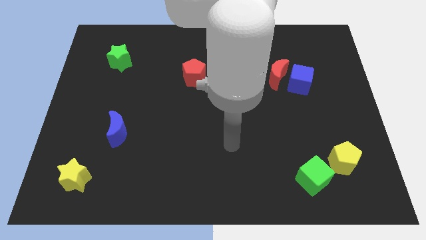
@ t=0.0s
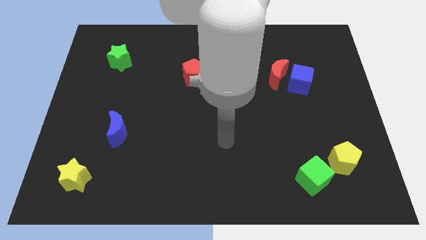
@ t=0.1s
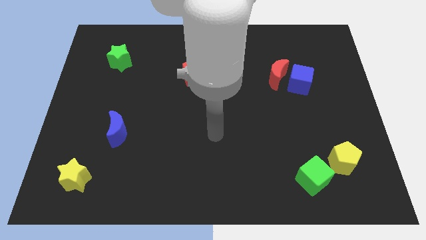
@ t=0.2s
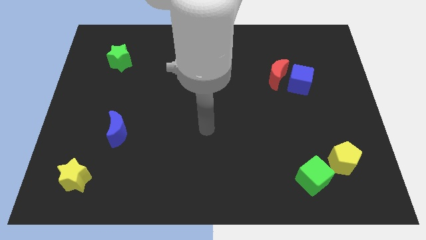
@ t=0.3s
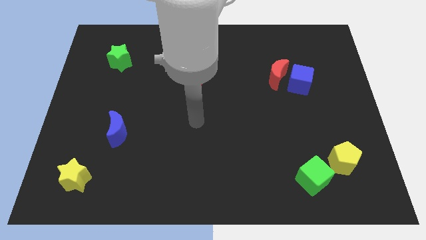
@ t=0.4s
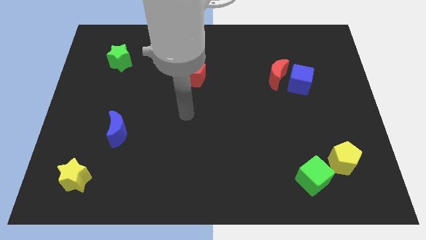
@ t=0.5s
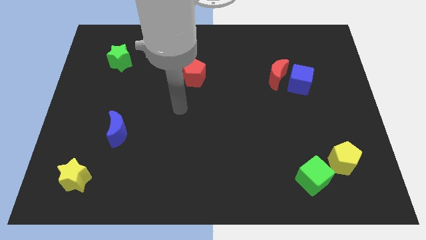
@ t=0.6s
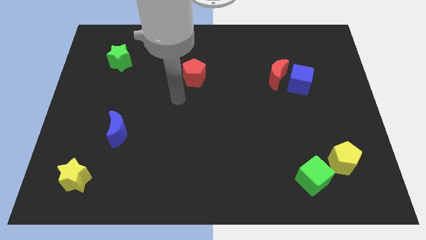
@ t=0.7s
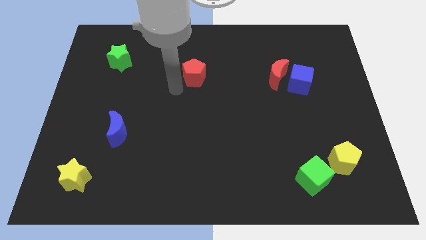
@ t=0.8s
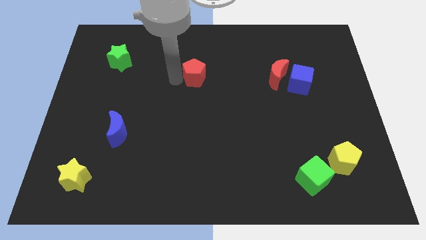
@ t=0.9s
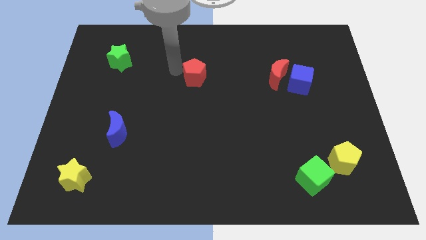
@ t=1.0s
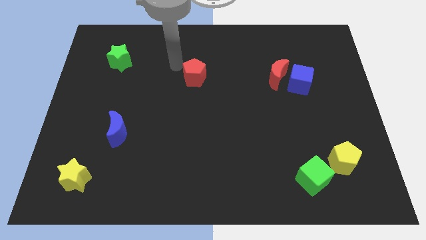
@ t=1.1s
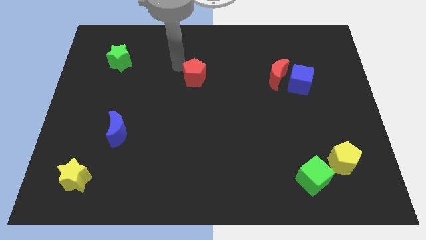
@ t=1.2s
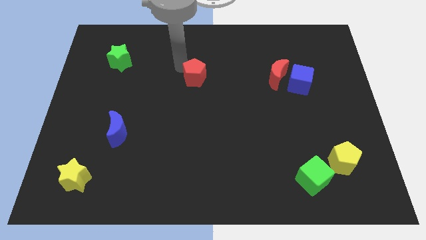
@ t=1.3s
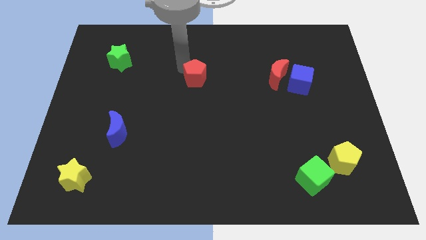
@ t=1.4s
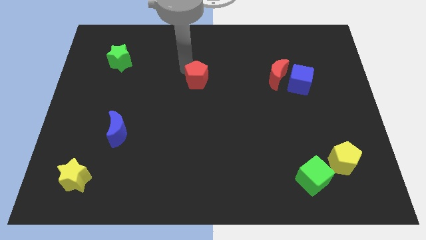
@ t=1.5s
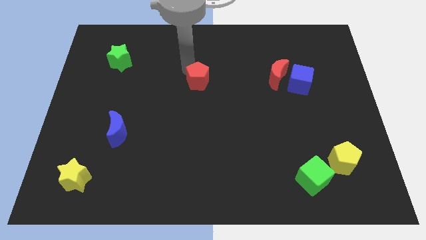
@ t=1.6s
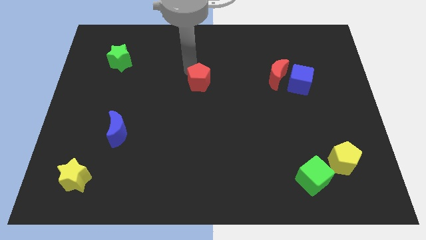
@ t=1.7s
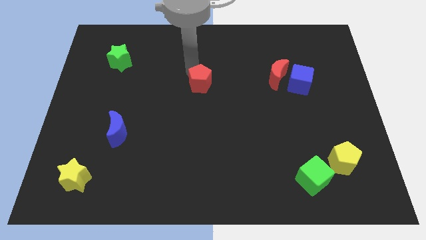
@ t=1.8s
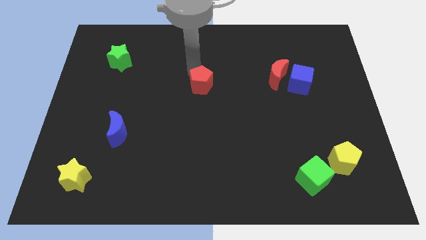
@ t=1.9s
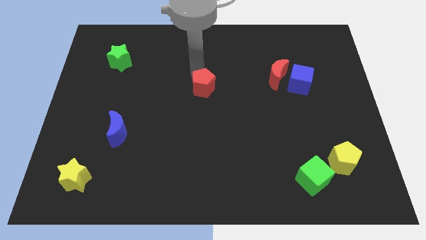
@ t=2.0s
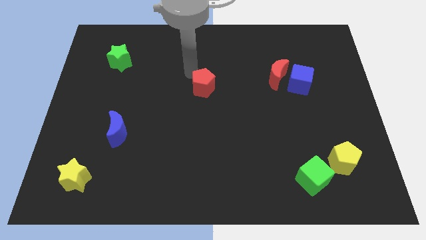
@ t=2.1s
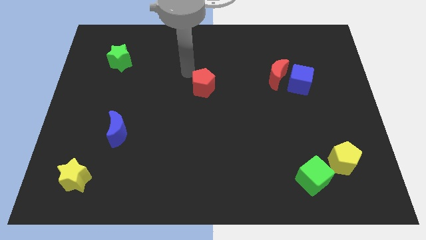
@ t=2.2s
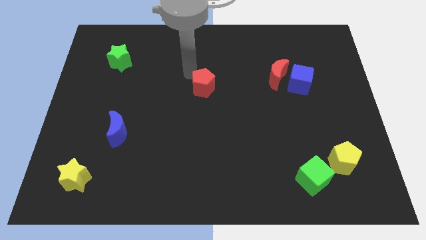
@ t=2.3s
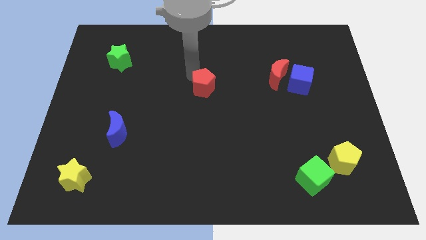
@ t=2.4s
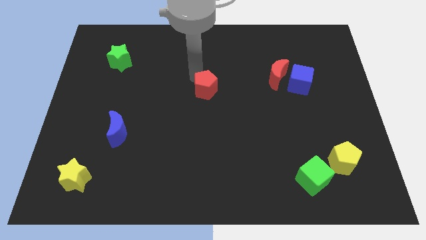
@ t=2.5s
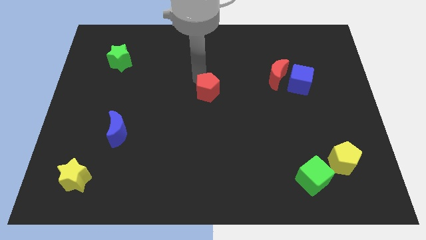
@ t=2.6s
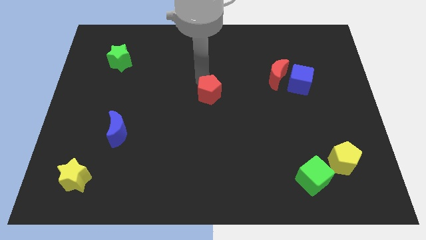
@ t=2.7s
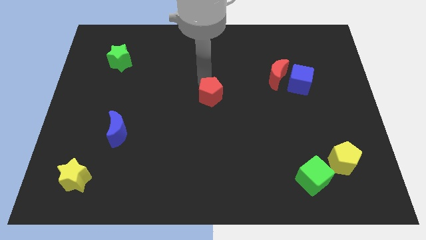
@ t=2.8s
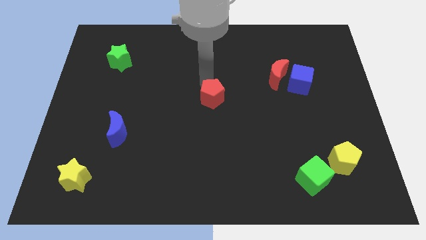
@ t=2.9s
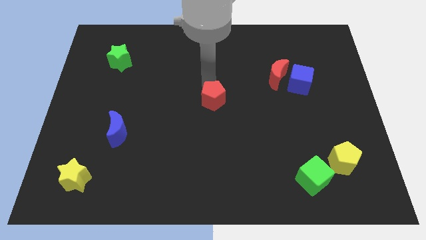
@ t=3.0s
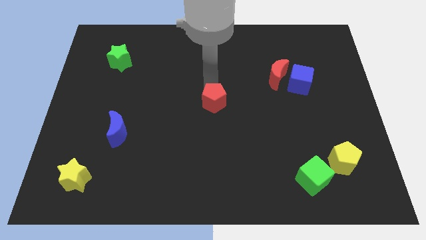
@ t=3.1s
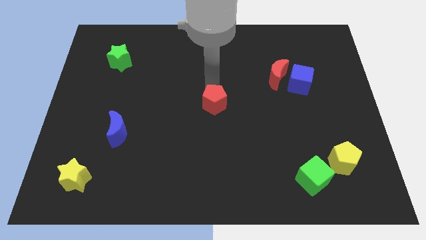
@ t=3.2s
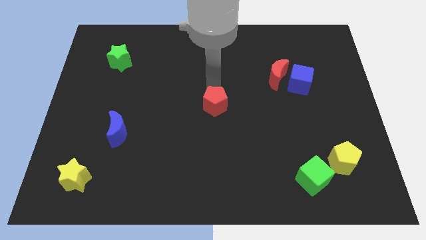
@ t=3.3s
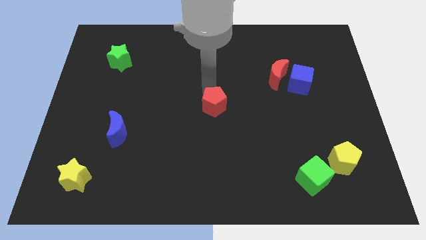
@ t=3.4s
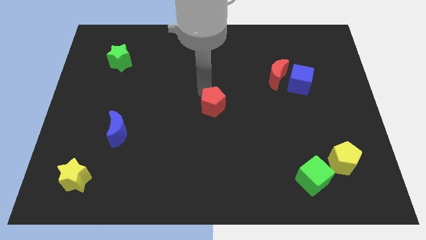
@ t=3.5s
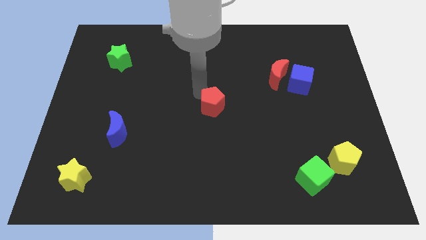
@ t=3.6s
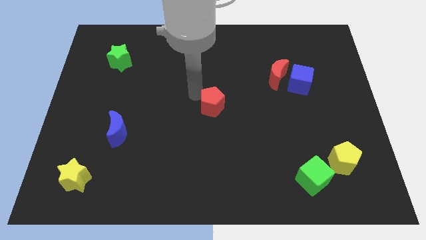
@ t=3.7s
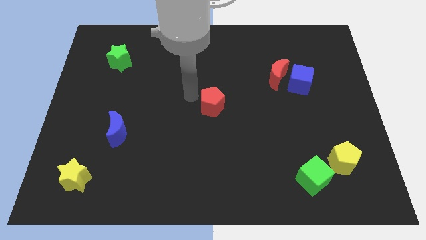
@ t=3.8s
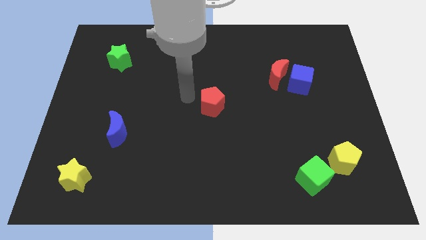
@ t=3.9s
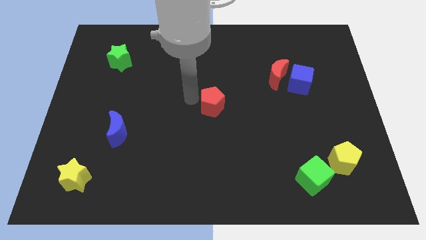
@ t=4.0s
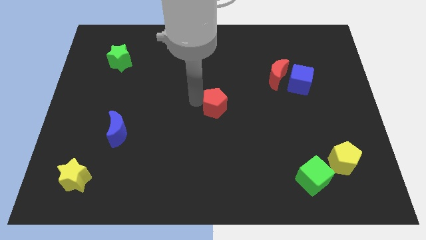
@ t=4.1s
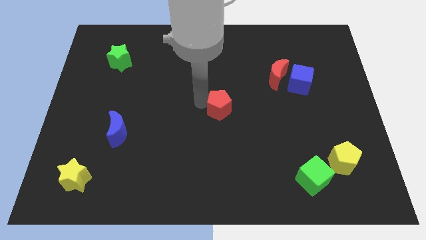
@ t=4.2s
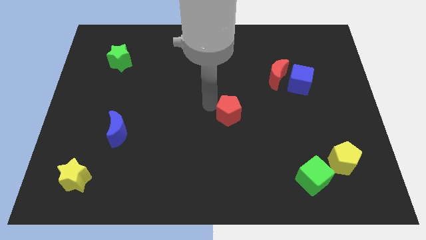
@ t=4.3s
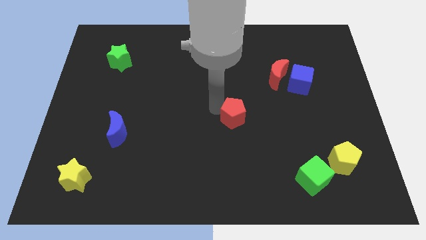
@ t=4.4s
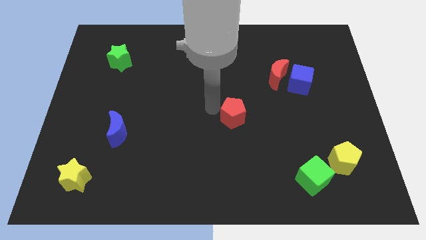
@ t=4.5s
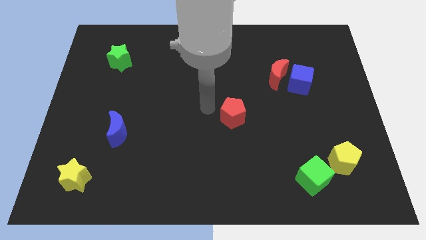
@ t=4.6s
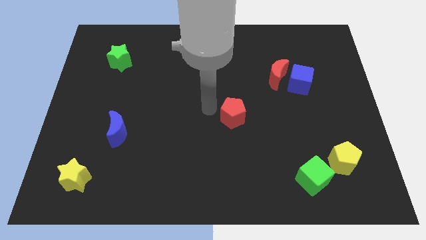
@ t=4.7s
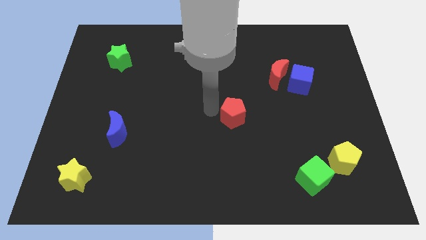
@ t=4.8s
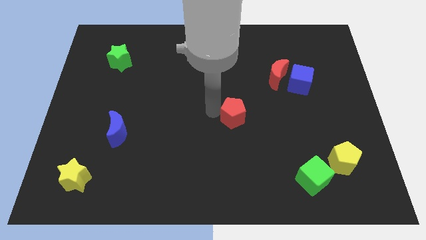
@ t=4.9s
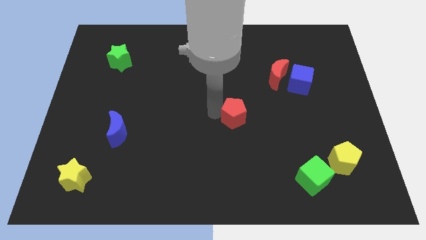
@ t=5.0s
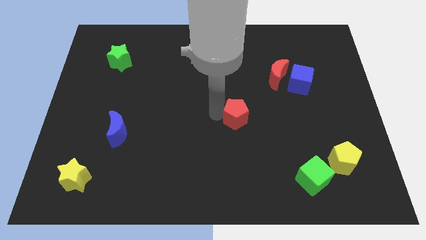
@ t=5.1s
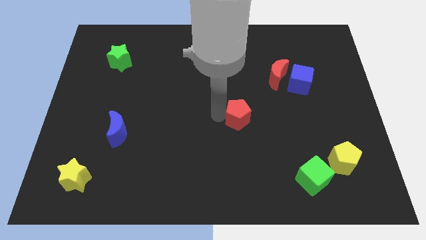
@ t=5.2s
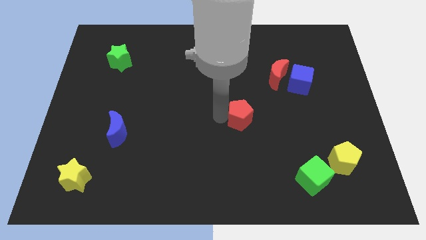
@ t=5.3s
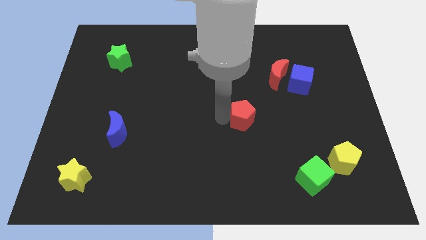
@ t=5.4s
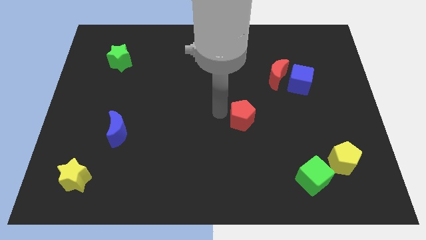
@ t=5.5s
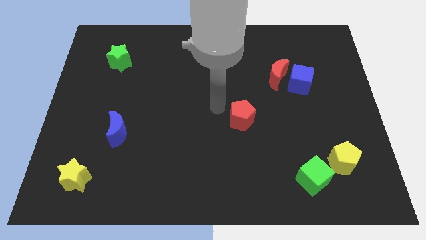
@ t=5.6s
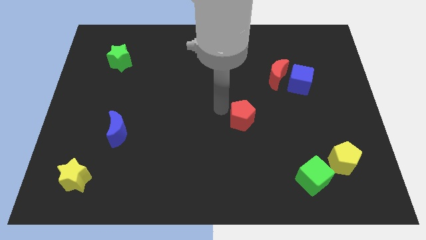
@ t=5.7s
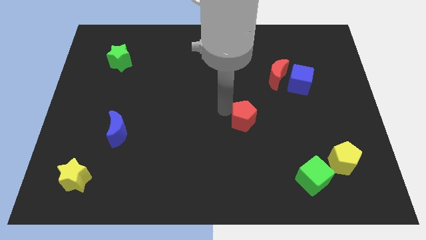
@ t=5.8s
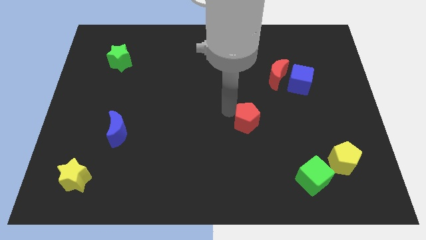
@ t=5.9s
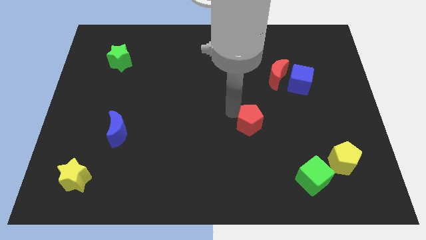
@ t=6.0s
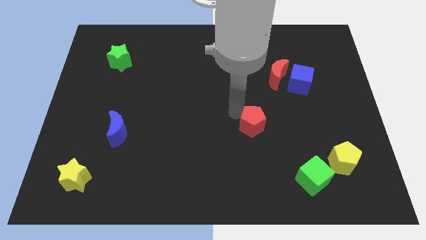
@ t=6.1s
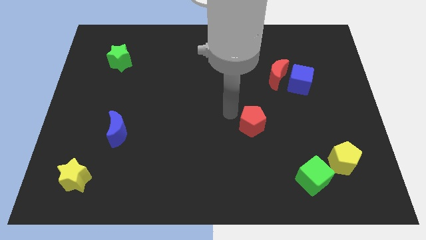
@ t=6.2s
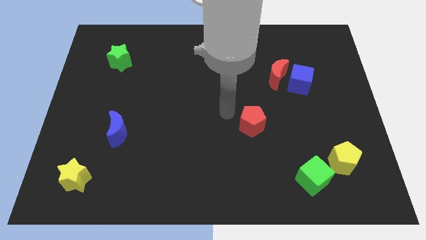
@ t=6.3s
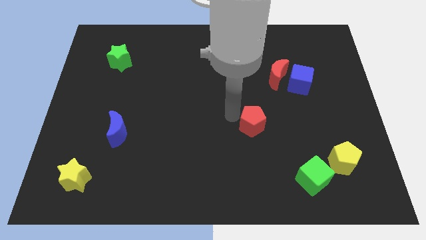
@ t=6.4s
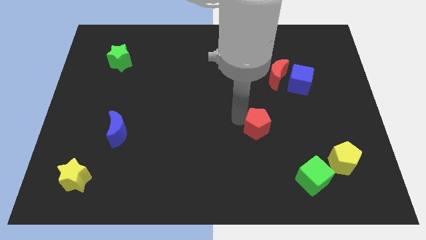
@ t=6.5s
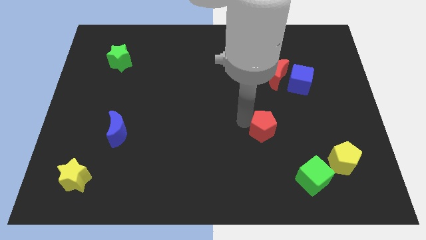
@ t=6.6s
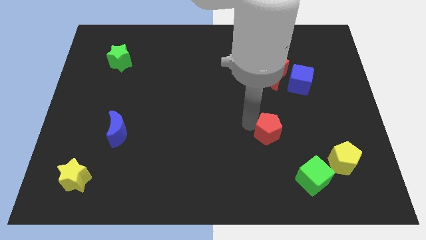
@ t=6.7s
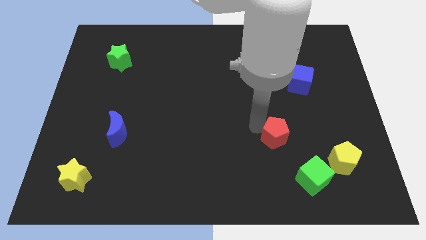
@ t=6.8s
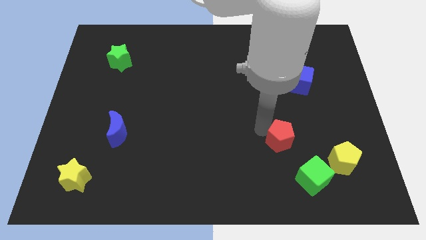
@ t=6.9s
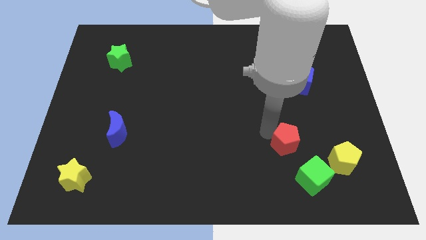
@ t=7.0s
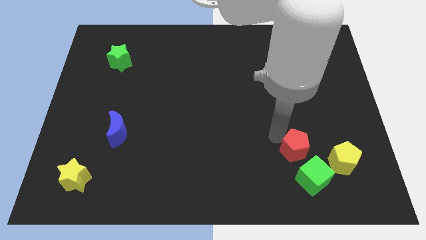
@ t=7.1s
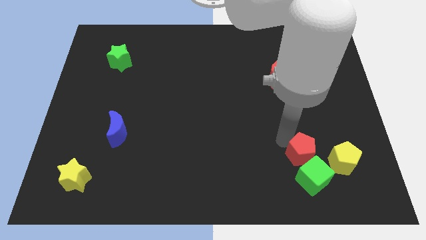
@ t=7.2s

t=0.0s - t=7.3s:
push the red pentagon close to the green cube

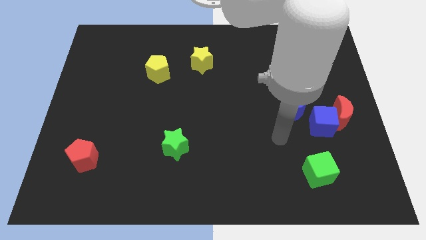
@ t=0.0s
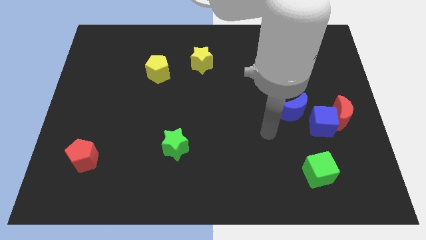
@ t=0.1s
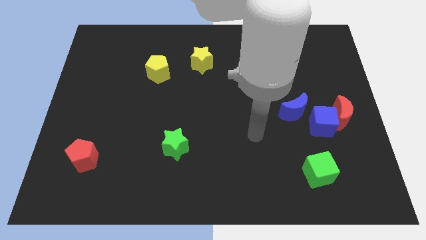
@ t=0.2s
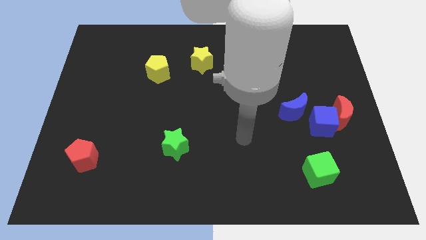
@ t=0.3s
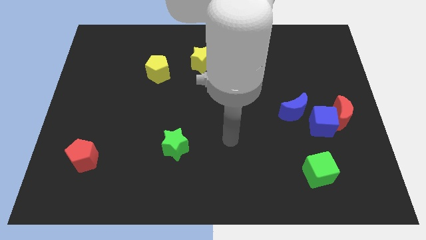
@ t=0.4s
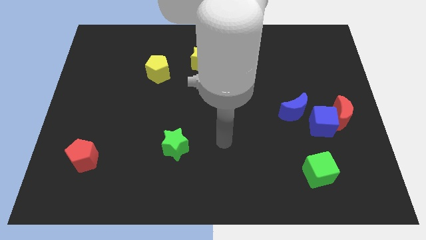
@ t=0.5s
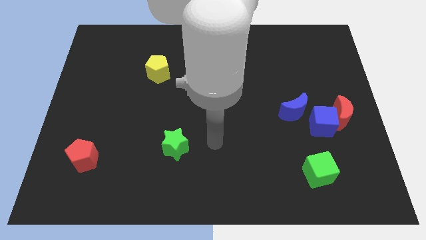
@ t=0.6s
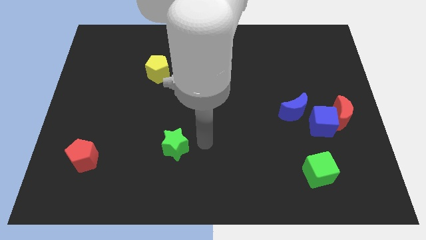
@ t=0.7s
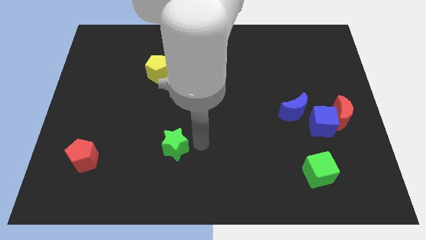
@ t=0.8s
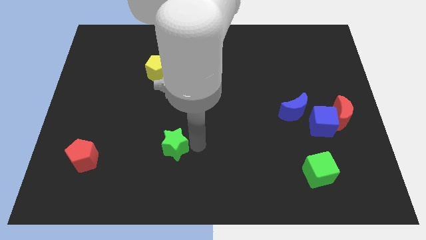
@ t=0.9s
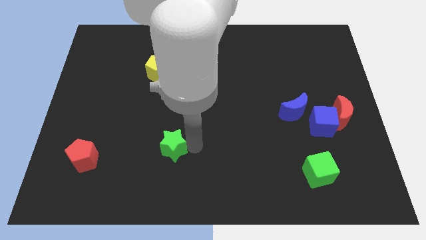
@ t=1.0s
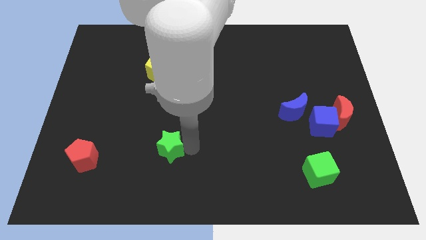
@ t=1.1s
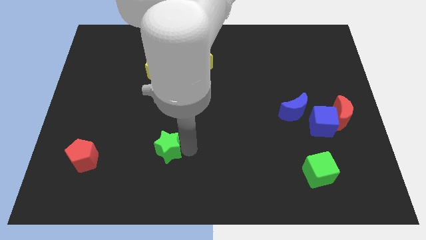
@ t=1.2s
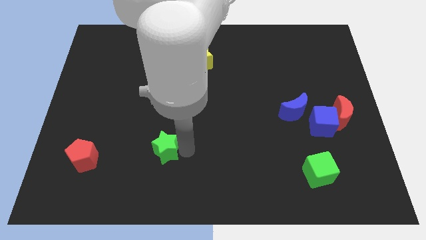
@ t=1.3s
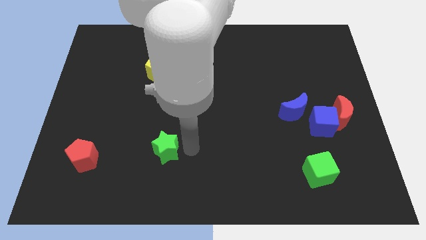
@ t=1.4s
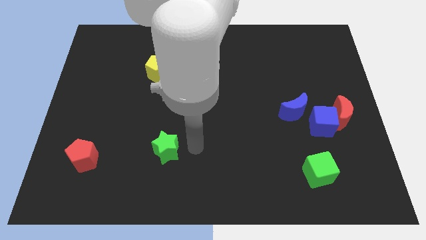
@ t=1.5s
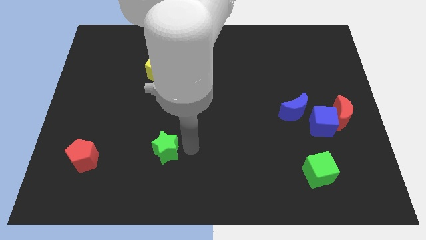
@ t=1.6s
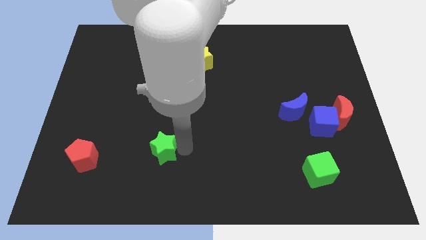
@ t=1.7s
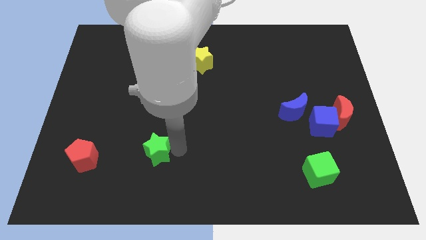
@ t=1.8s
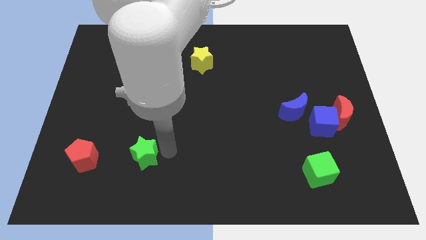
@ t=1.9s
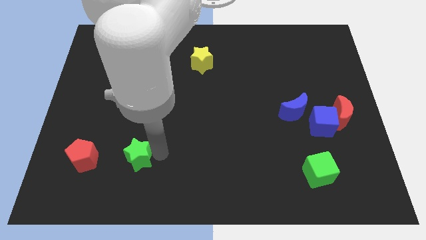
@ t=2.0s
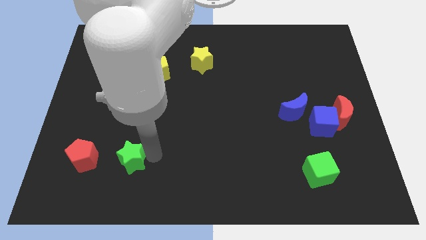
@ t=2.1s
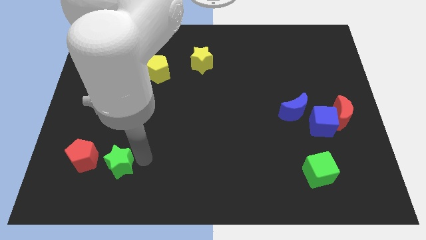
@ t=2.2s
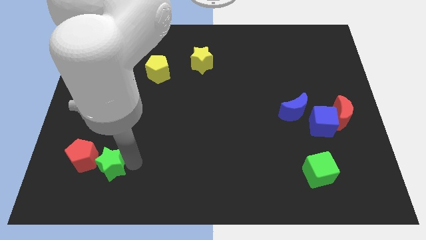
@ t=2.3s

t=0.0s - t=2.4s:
move the green star close to the red pentagon
